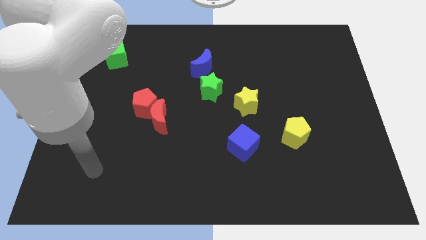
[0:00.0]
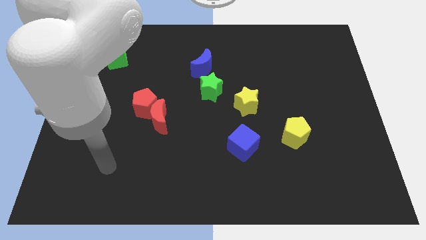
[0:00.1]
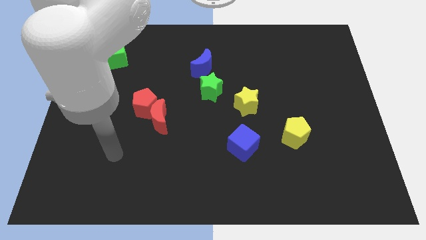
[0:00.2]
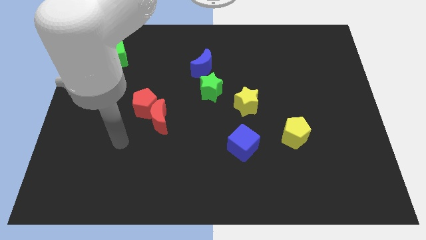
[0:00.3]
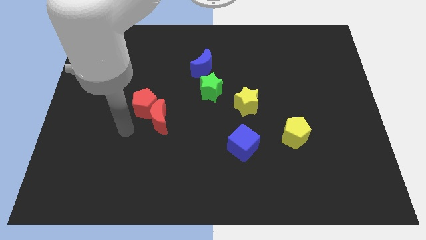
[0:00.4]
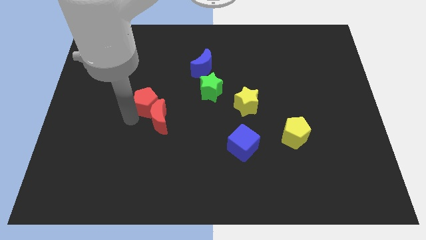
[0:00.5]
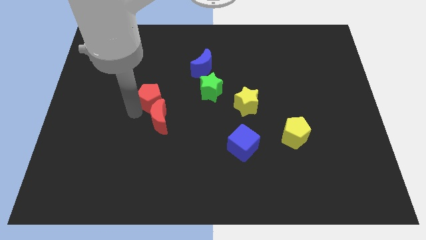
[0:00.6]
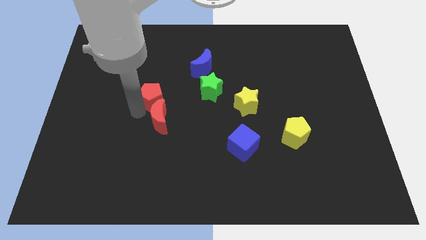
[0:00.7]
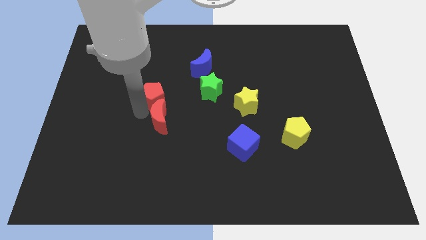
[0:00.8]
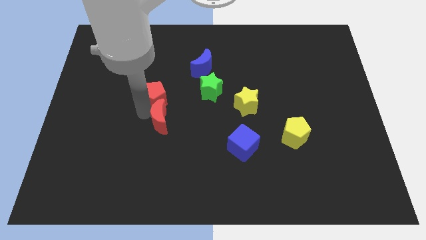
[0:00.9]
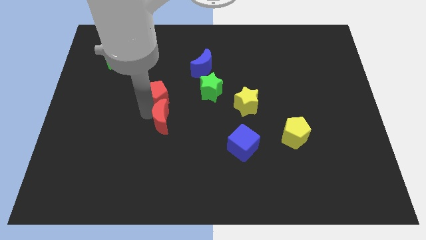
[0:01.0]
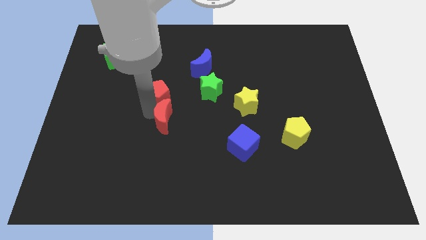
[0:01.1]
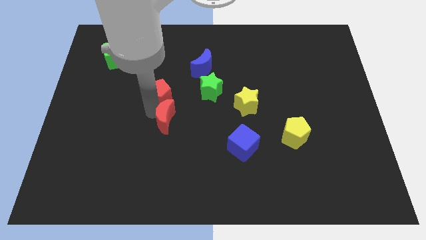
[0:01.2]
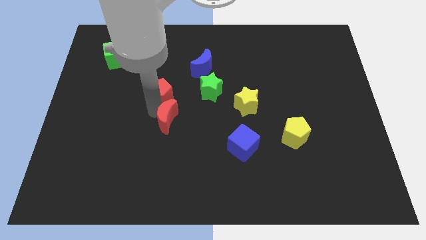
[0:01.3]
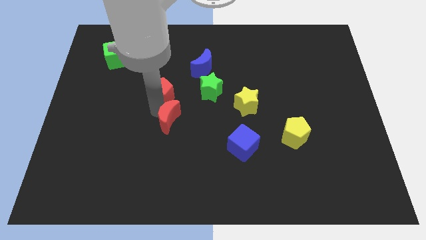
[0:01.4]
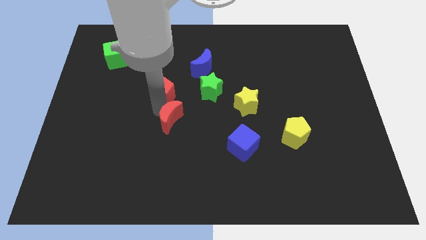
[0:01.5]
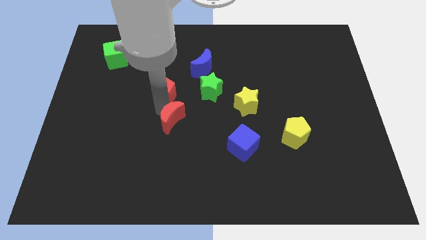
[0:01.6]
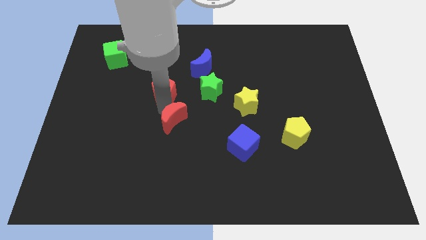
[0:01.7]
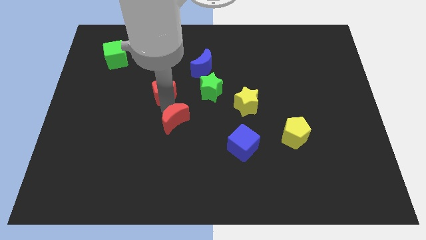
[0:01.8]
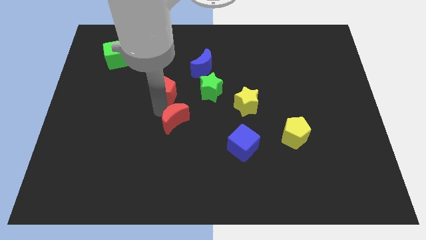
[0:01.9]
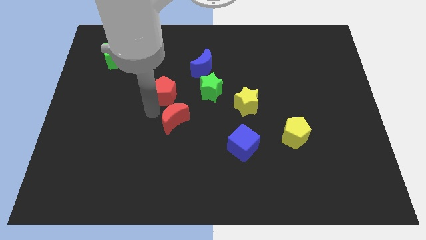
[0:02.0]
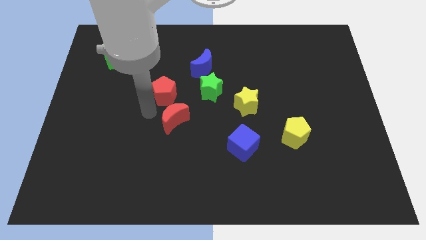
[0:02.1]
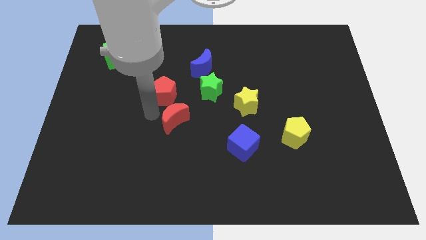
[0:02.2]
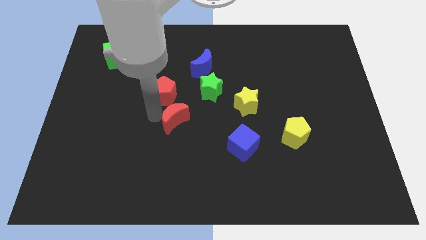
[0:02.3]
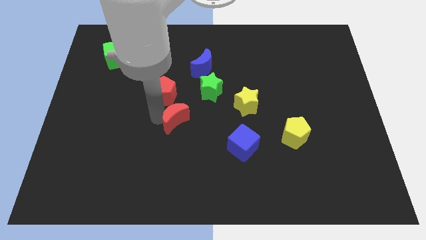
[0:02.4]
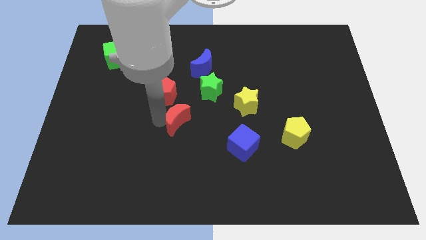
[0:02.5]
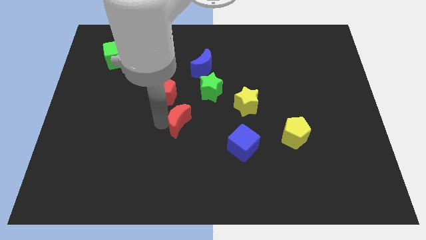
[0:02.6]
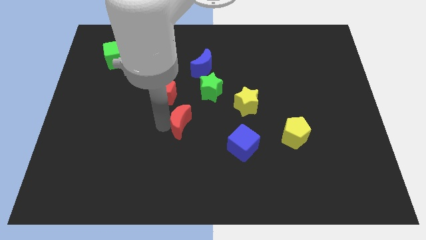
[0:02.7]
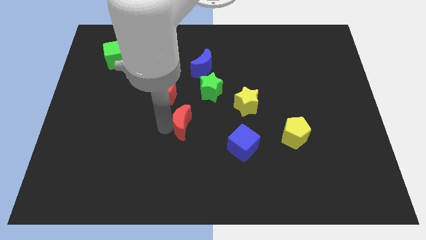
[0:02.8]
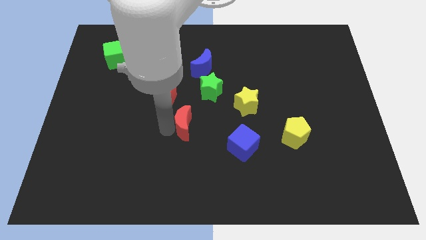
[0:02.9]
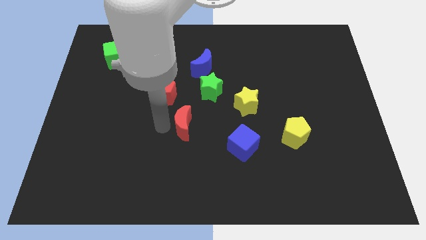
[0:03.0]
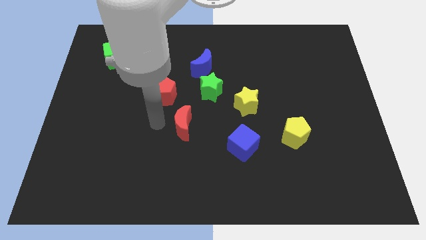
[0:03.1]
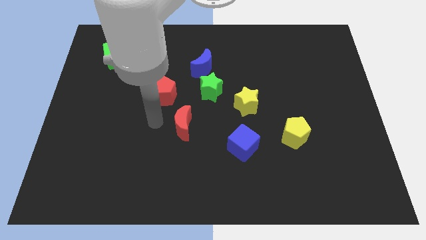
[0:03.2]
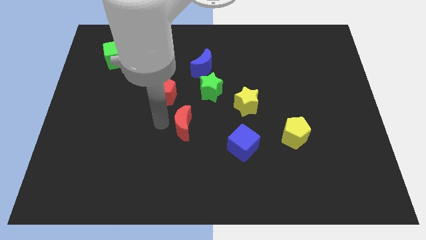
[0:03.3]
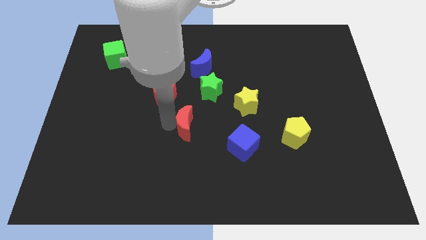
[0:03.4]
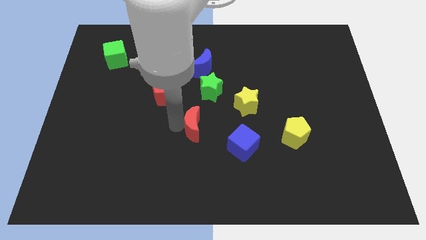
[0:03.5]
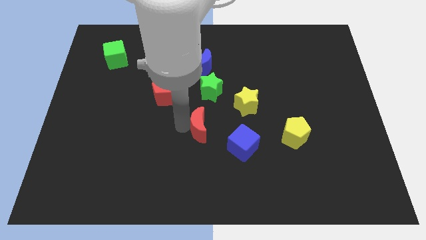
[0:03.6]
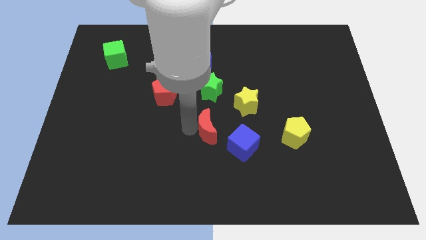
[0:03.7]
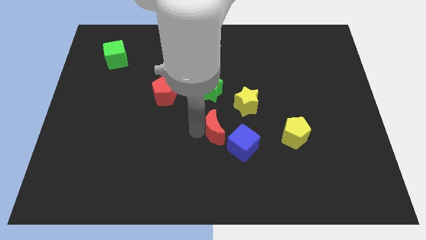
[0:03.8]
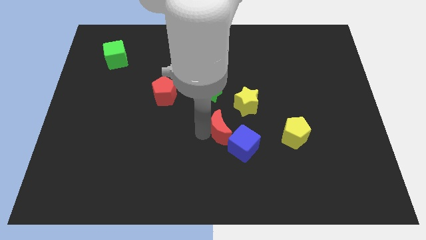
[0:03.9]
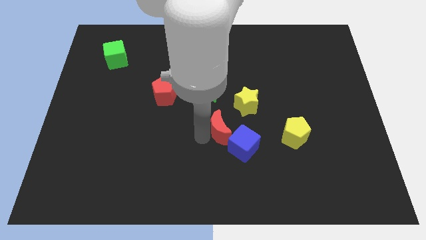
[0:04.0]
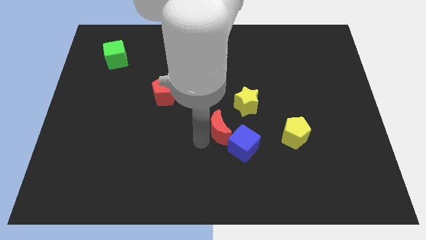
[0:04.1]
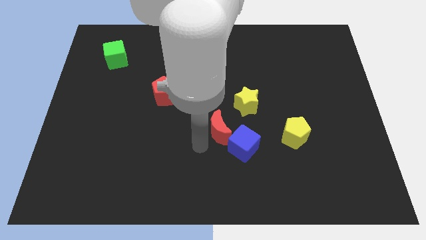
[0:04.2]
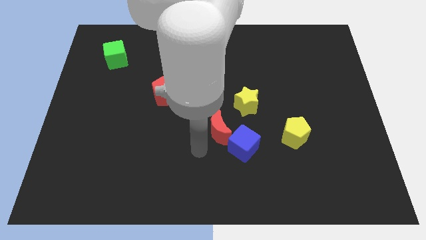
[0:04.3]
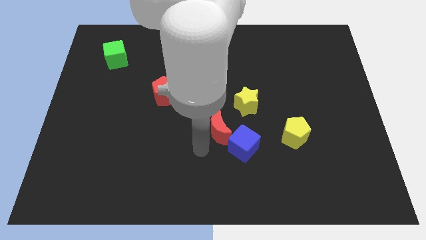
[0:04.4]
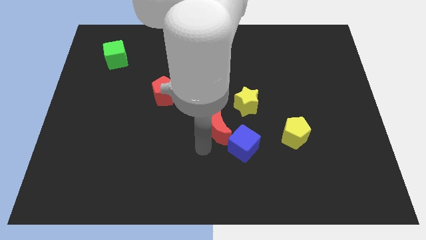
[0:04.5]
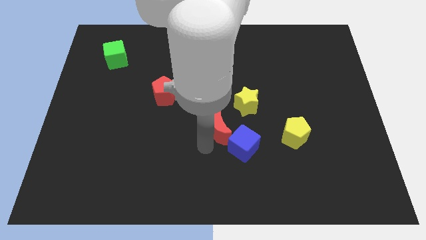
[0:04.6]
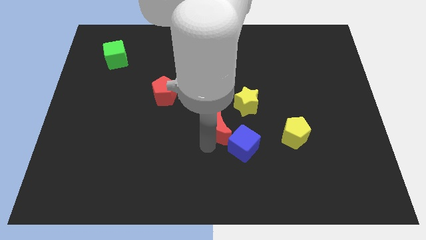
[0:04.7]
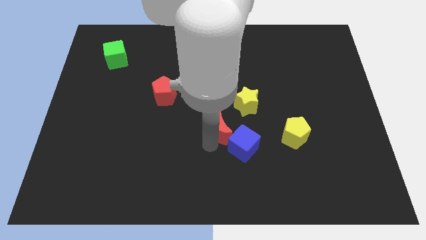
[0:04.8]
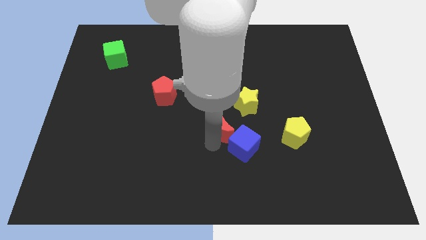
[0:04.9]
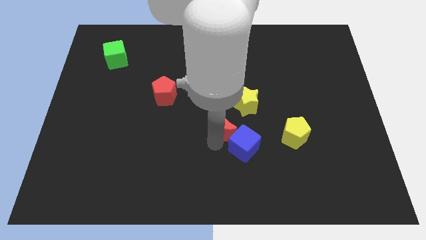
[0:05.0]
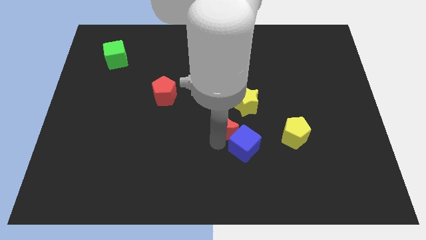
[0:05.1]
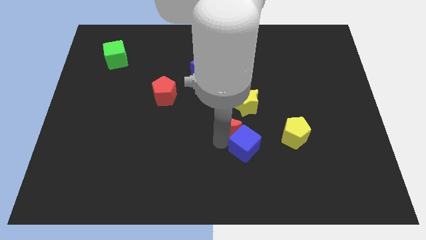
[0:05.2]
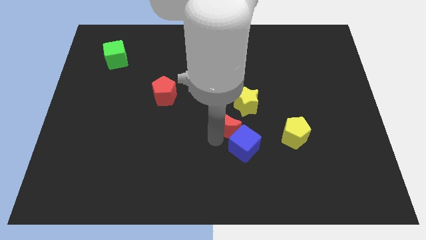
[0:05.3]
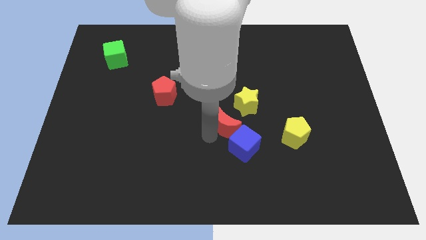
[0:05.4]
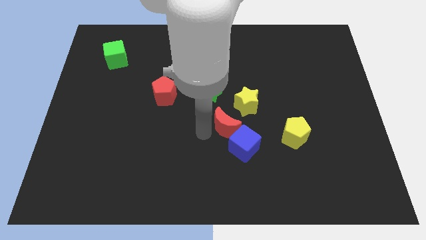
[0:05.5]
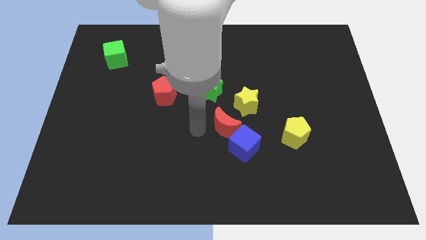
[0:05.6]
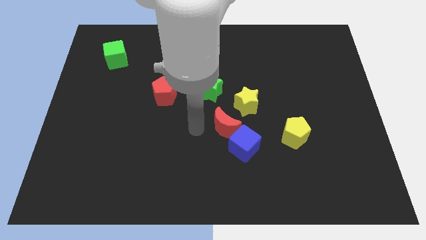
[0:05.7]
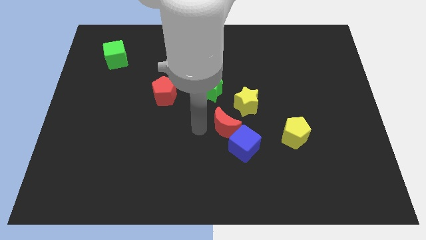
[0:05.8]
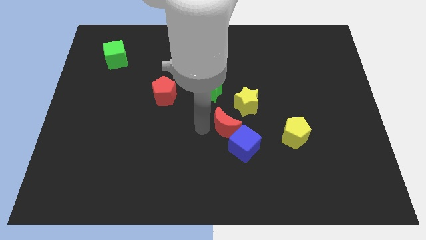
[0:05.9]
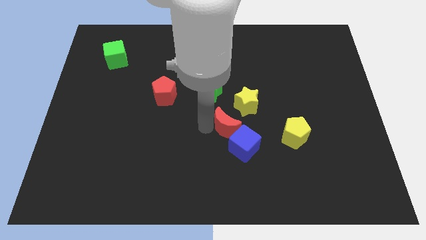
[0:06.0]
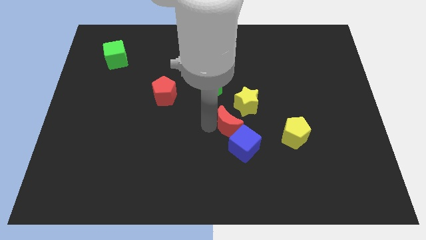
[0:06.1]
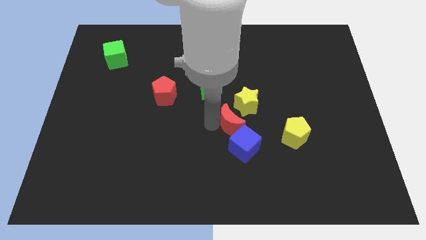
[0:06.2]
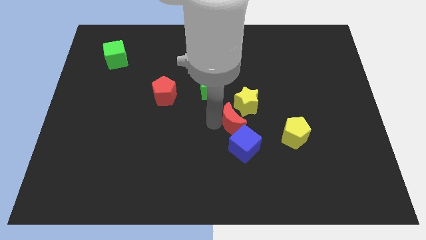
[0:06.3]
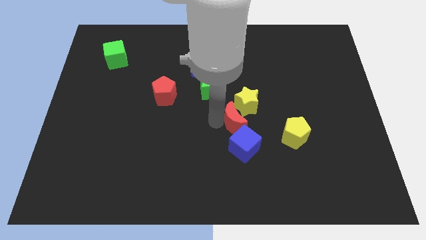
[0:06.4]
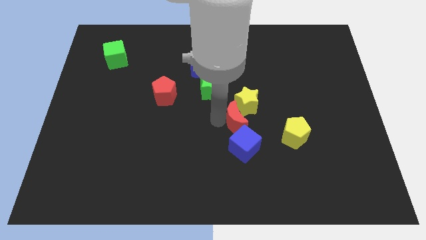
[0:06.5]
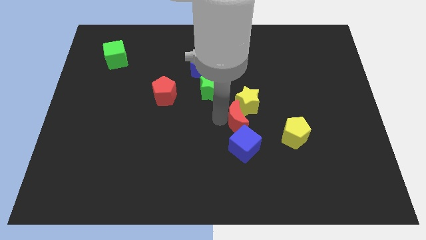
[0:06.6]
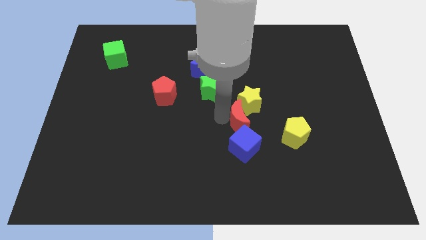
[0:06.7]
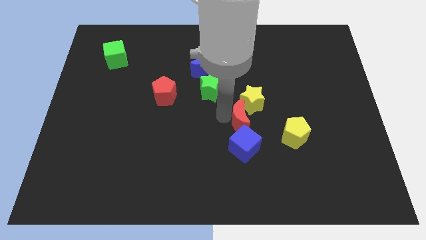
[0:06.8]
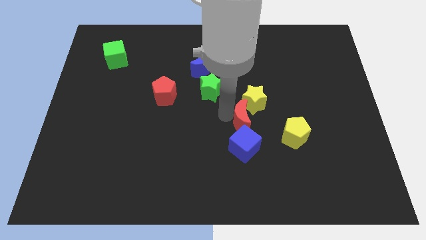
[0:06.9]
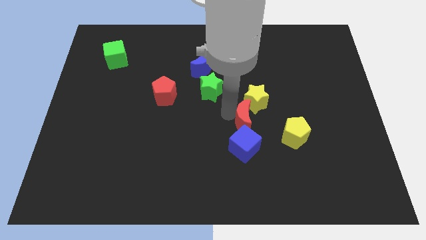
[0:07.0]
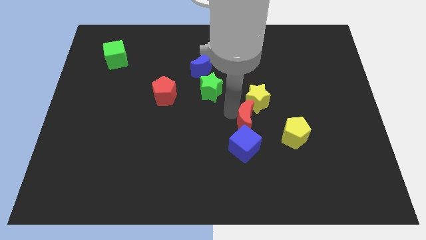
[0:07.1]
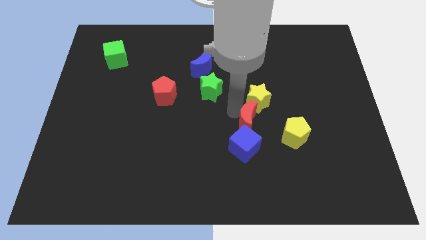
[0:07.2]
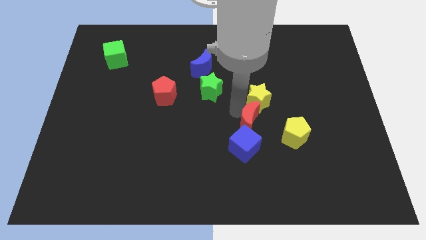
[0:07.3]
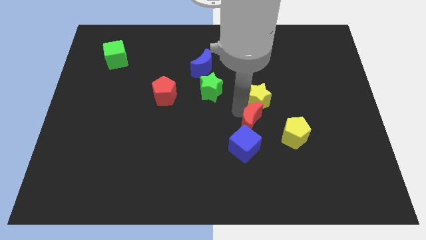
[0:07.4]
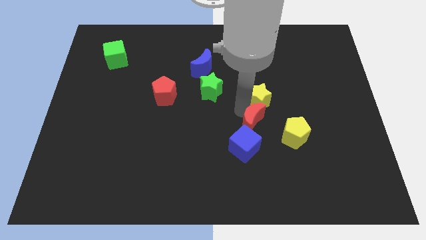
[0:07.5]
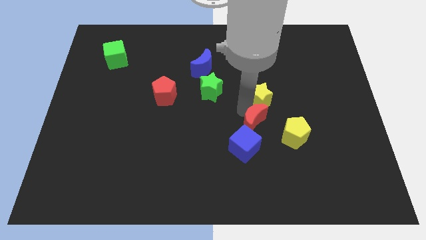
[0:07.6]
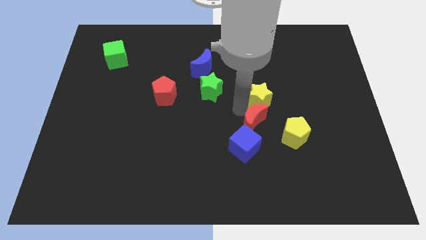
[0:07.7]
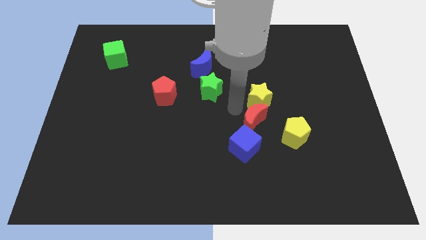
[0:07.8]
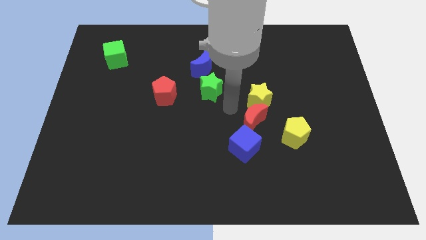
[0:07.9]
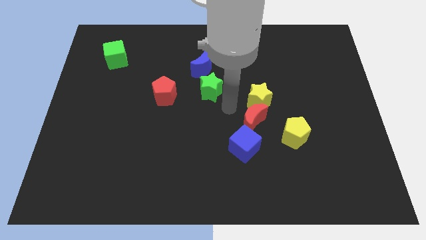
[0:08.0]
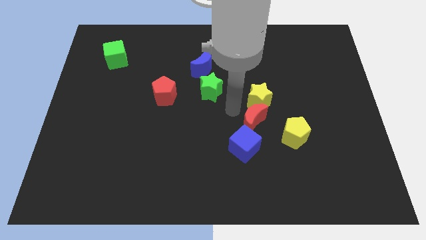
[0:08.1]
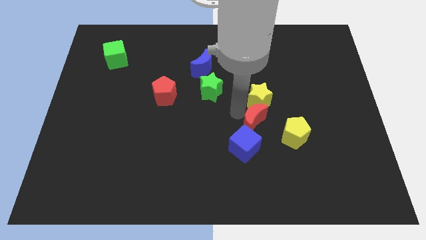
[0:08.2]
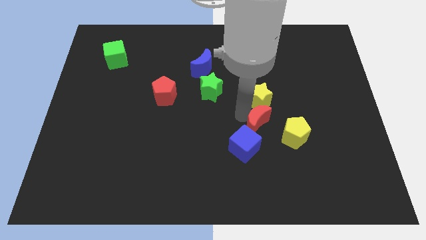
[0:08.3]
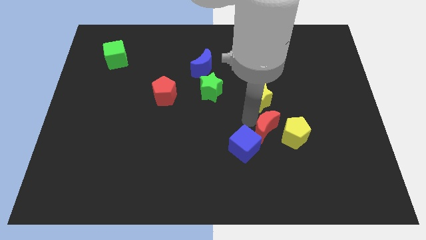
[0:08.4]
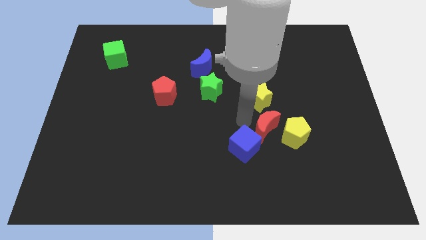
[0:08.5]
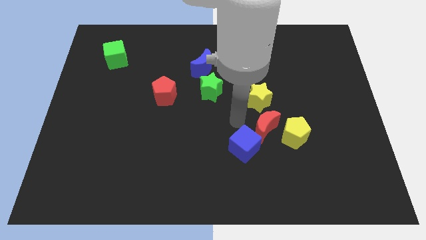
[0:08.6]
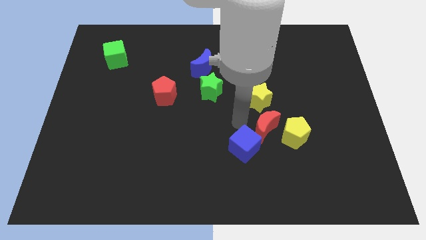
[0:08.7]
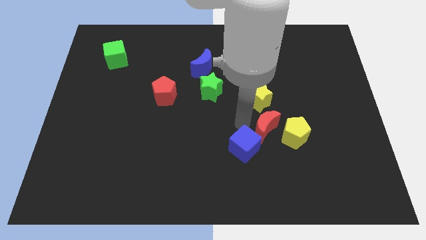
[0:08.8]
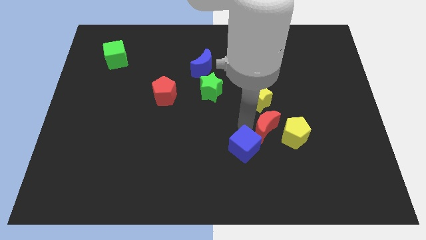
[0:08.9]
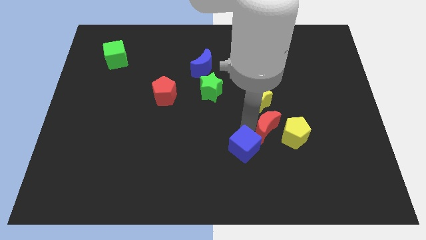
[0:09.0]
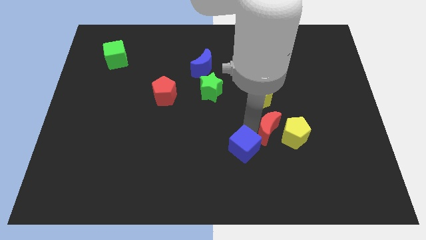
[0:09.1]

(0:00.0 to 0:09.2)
push the red moon close to the yellow pentagon
